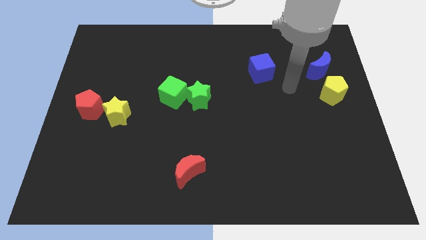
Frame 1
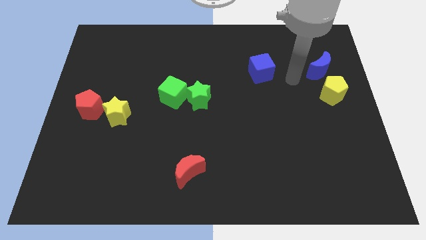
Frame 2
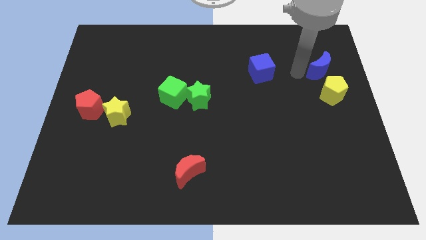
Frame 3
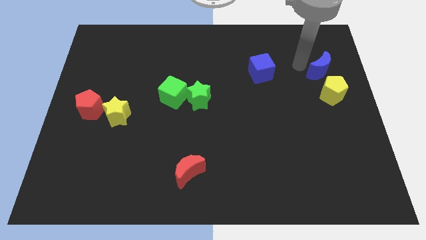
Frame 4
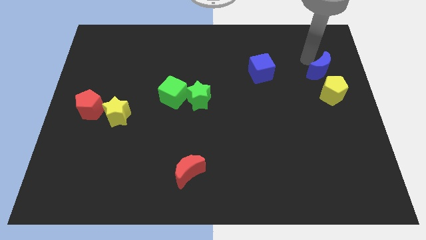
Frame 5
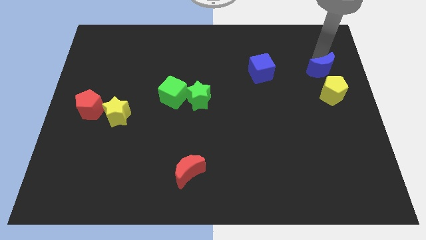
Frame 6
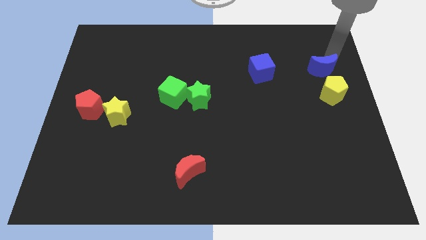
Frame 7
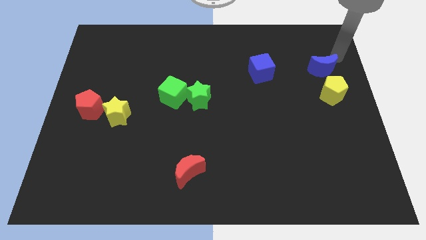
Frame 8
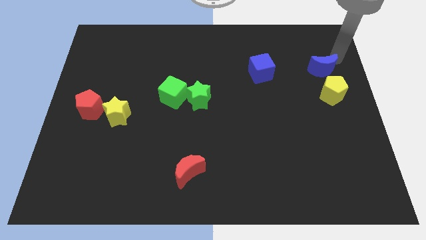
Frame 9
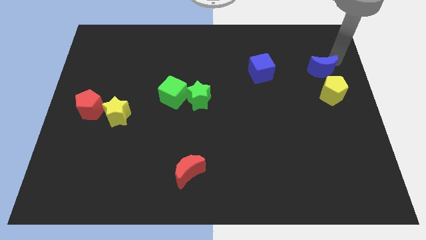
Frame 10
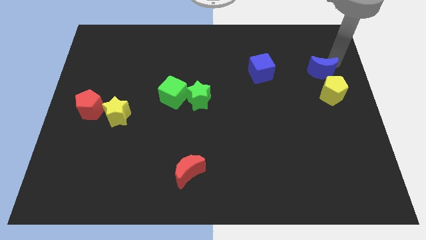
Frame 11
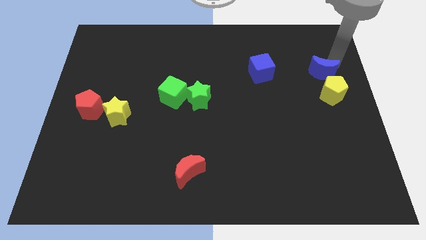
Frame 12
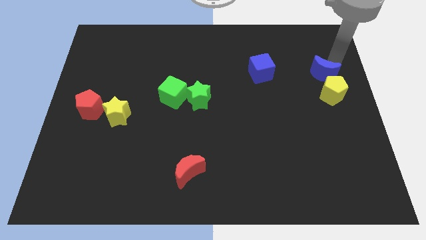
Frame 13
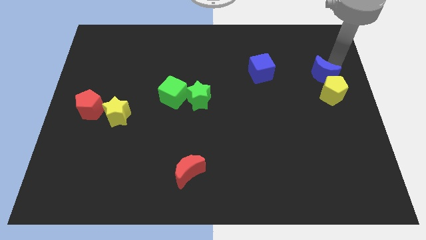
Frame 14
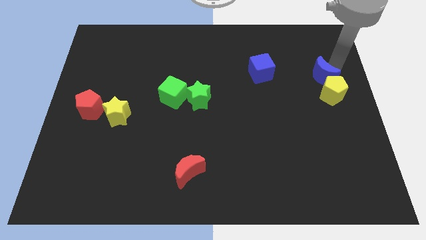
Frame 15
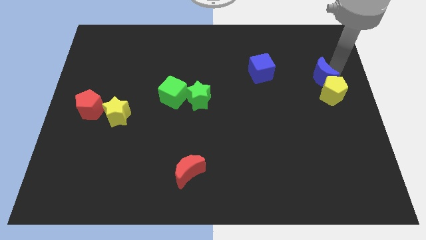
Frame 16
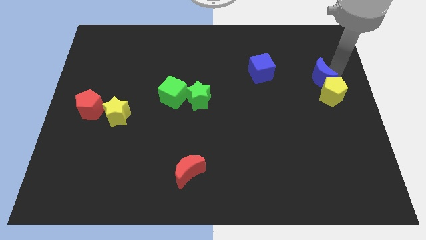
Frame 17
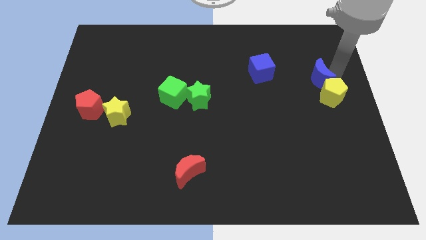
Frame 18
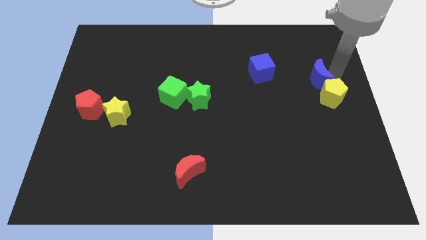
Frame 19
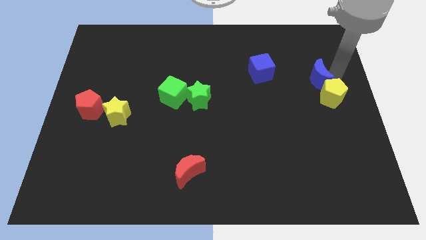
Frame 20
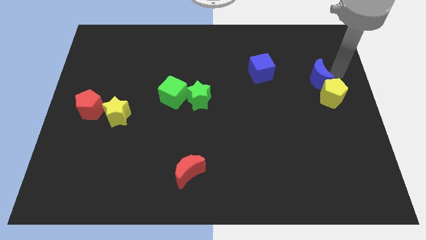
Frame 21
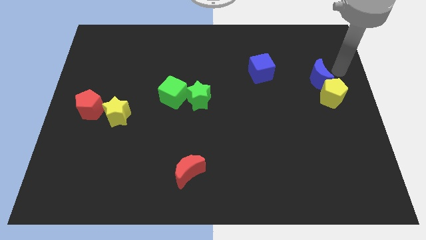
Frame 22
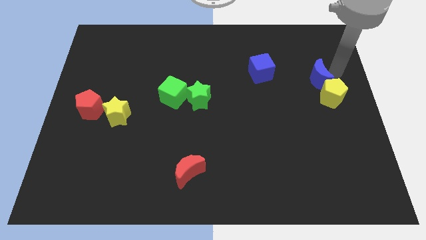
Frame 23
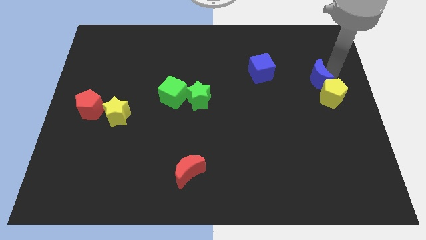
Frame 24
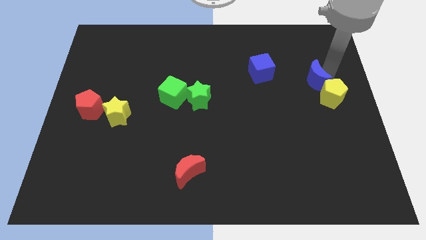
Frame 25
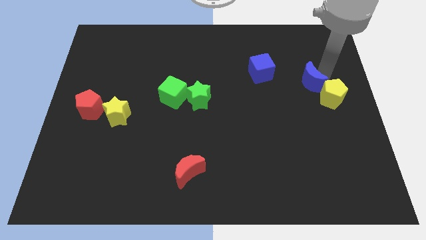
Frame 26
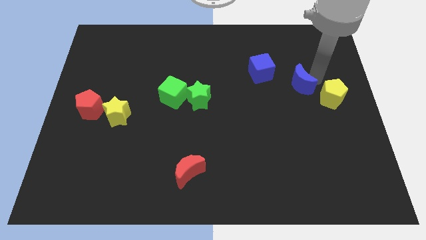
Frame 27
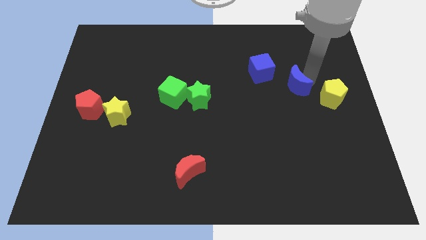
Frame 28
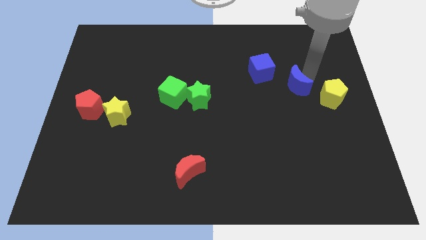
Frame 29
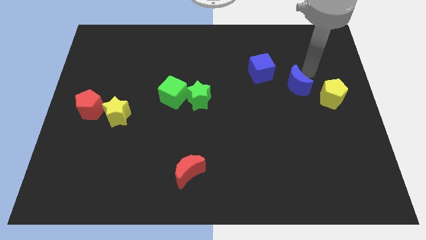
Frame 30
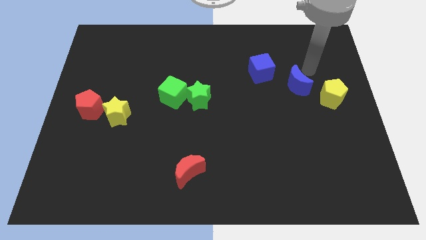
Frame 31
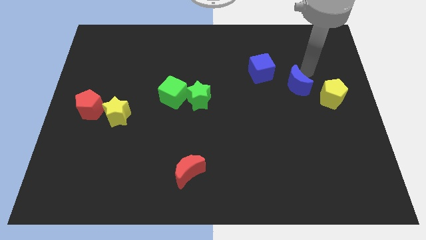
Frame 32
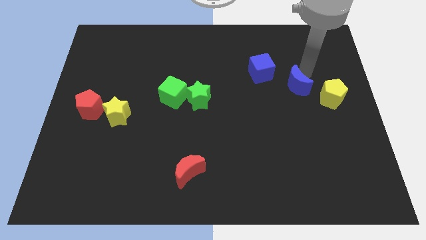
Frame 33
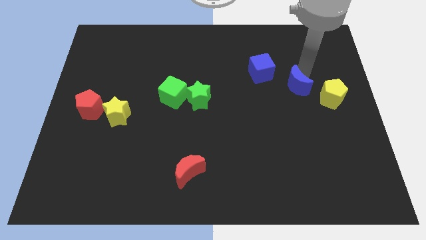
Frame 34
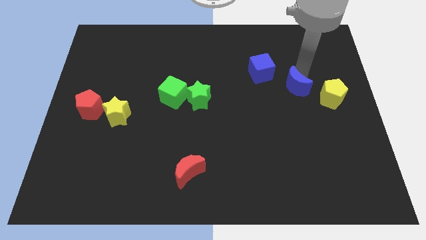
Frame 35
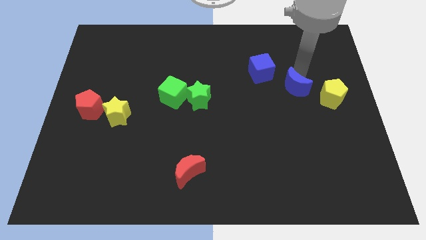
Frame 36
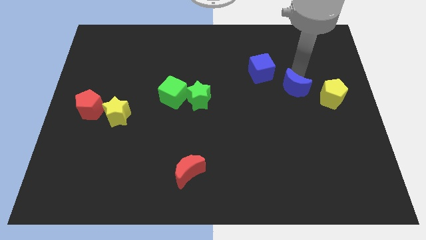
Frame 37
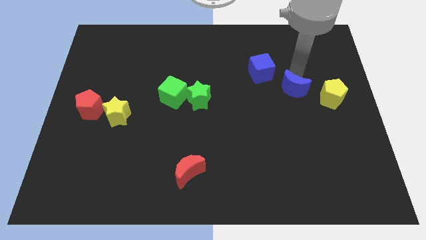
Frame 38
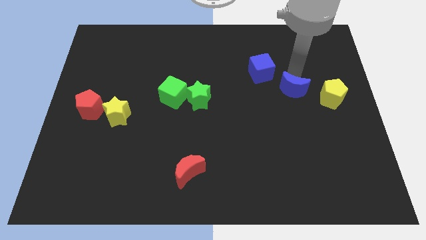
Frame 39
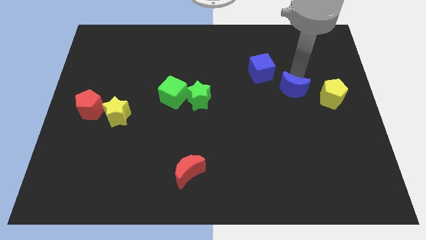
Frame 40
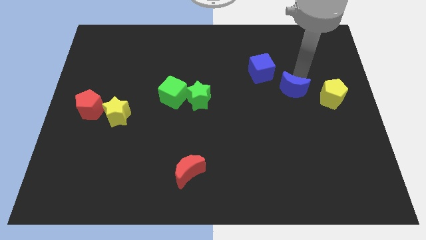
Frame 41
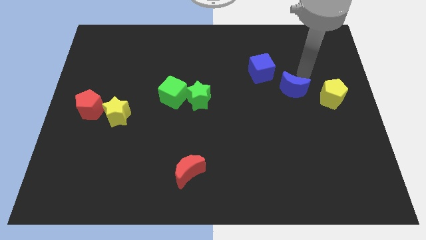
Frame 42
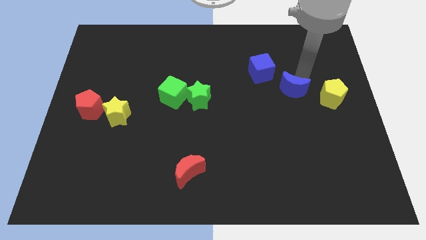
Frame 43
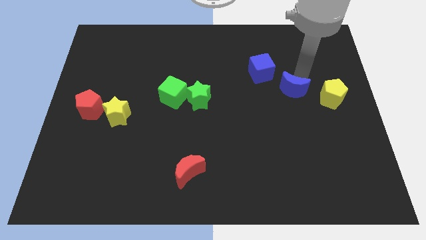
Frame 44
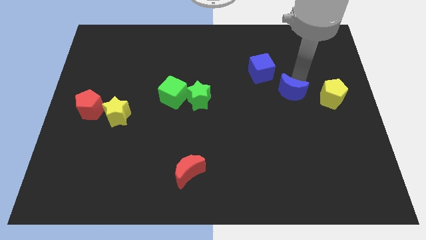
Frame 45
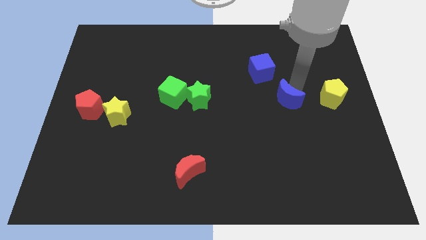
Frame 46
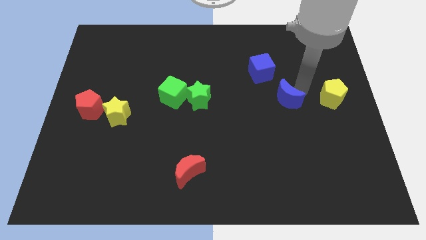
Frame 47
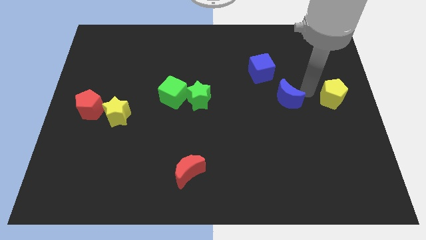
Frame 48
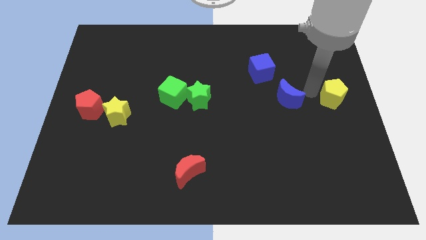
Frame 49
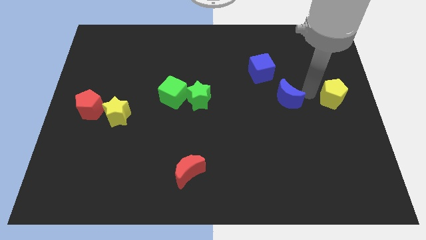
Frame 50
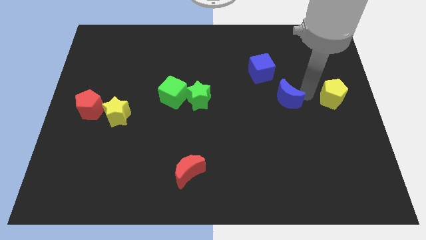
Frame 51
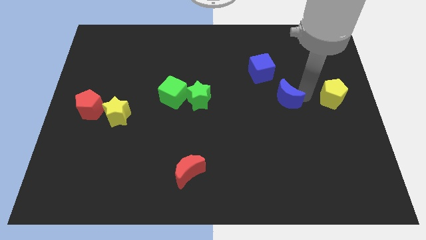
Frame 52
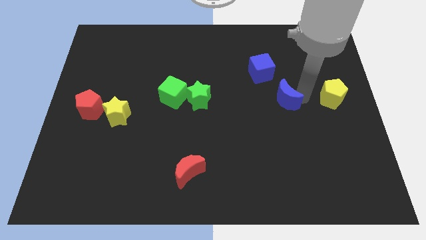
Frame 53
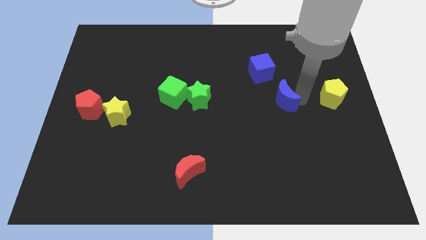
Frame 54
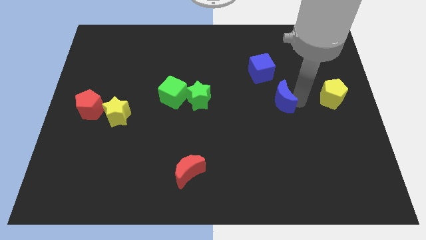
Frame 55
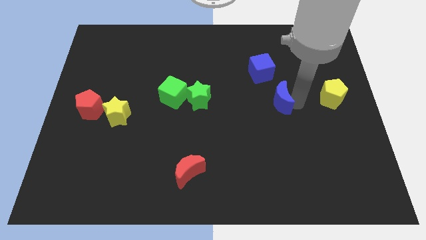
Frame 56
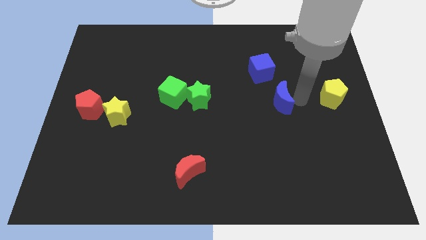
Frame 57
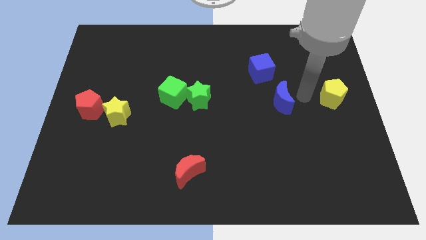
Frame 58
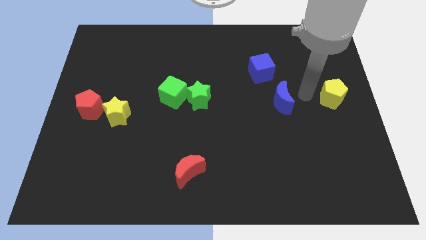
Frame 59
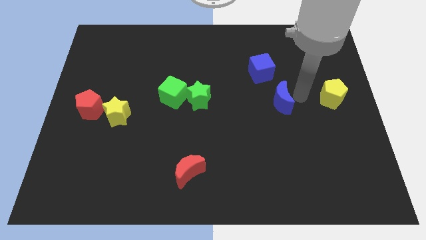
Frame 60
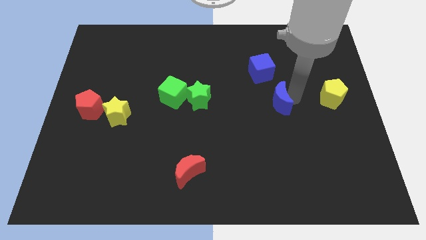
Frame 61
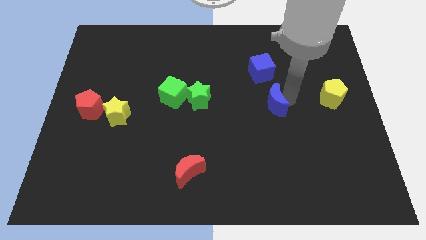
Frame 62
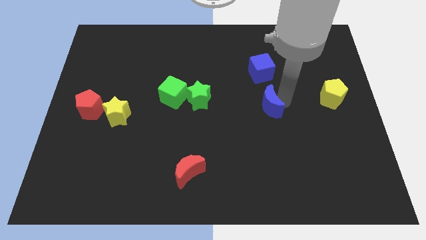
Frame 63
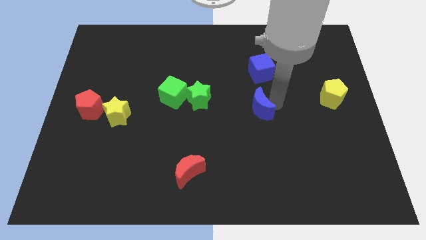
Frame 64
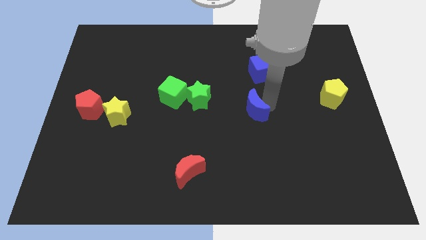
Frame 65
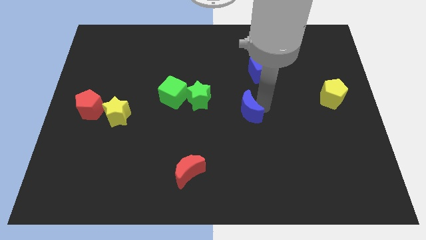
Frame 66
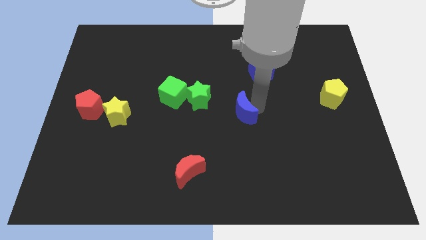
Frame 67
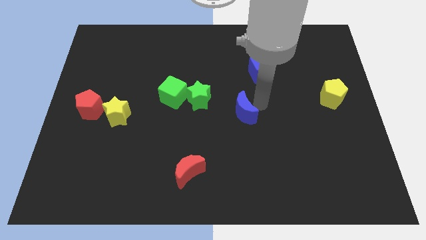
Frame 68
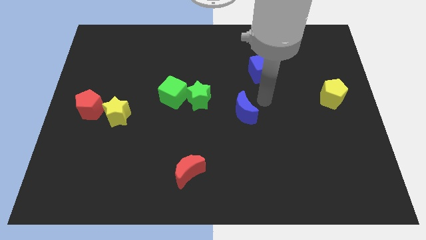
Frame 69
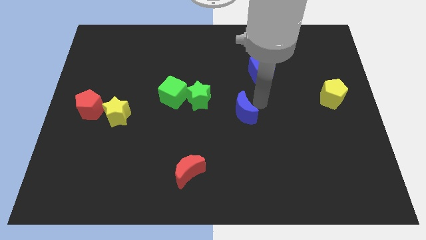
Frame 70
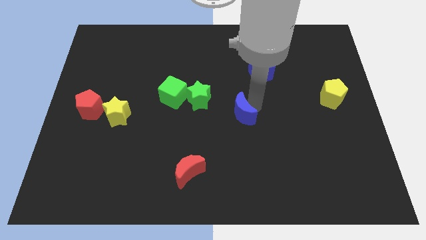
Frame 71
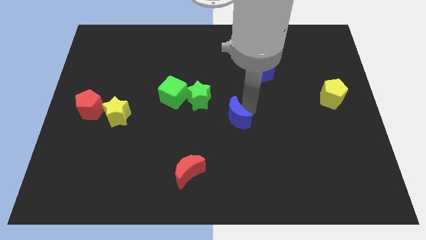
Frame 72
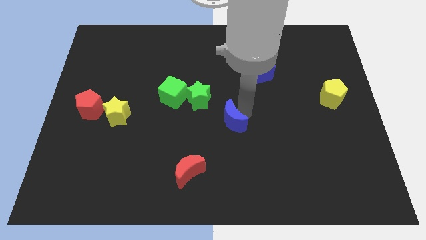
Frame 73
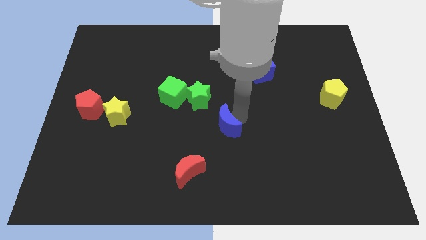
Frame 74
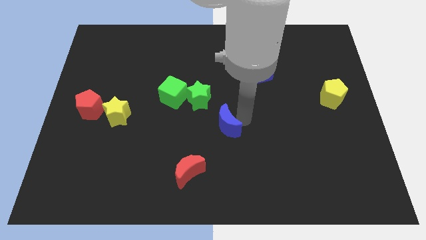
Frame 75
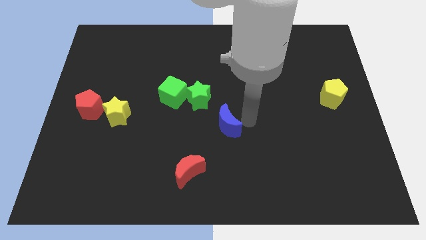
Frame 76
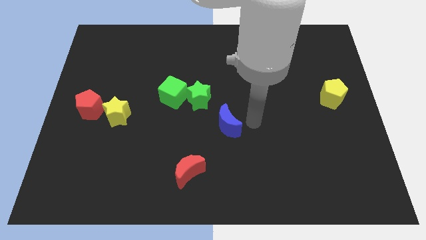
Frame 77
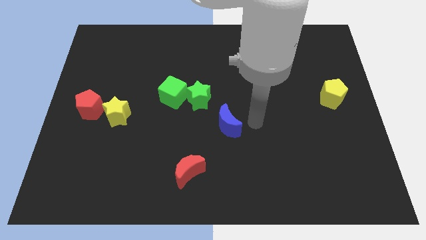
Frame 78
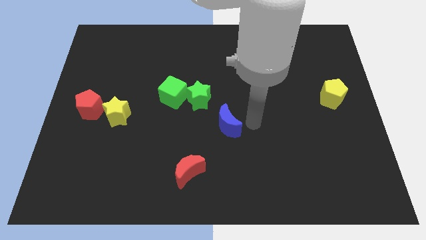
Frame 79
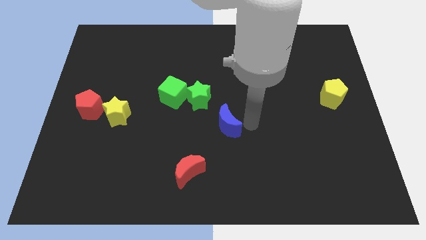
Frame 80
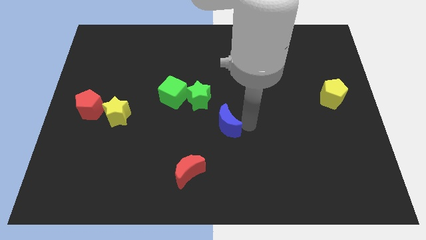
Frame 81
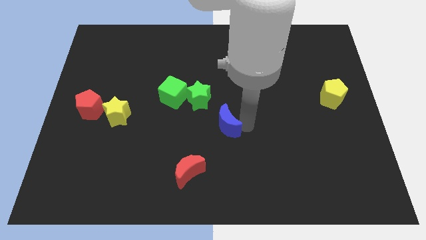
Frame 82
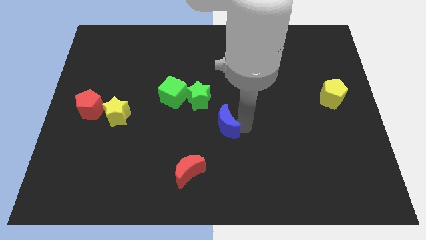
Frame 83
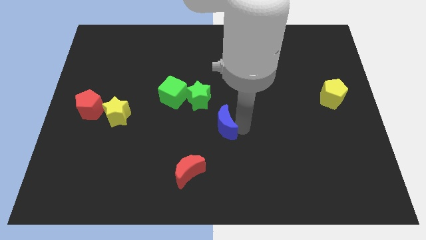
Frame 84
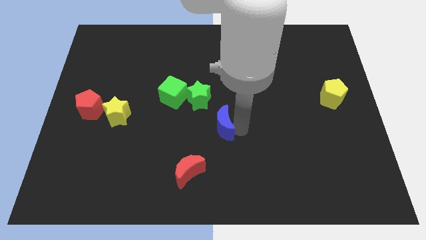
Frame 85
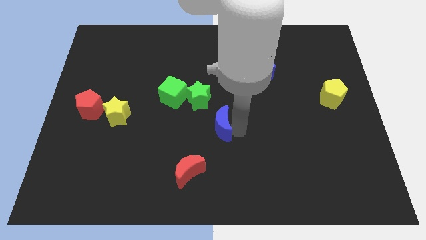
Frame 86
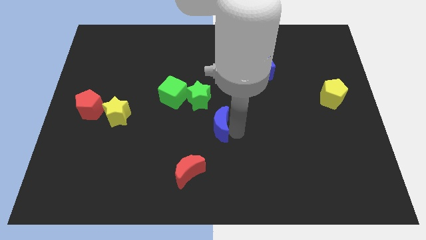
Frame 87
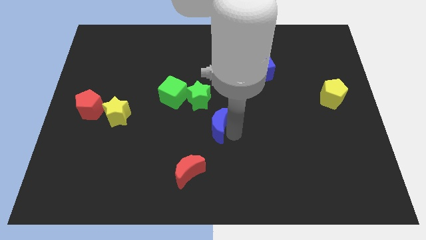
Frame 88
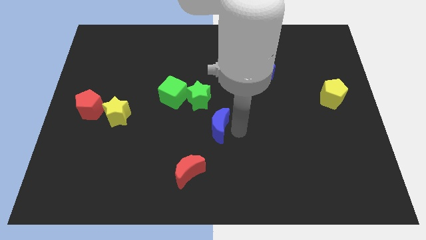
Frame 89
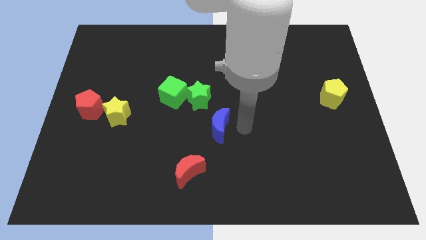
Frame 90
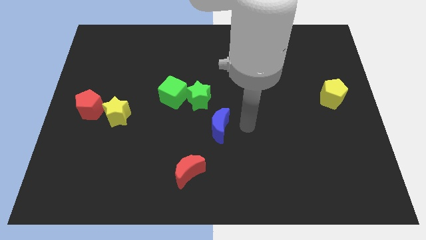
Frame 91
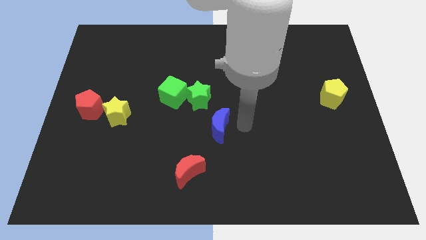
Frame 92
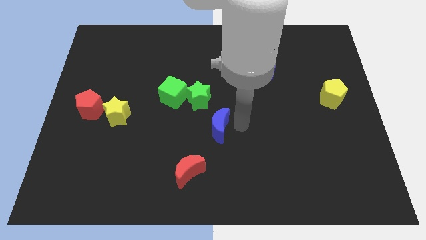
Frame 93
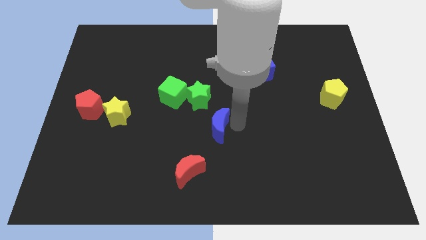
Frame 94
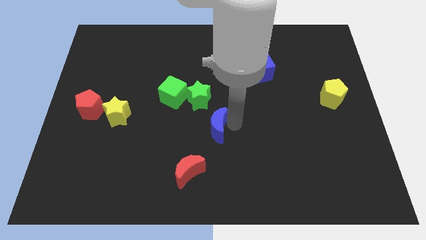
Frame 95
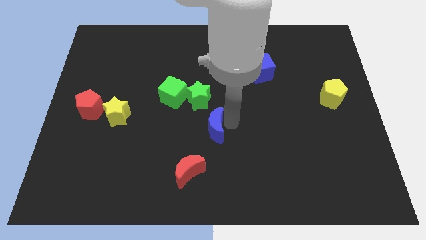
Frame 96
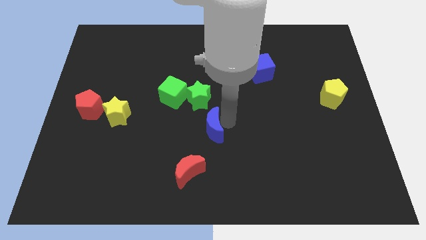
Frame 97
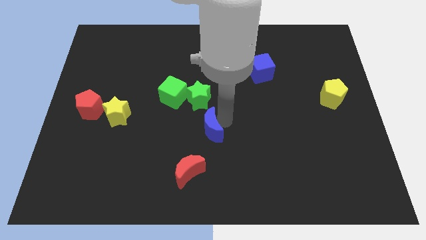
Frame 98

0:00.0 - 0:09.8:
push the blue moon to the top of the red moon
